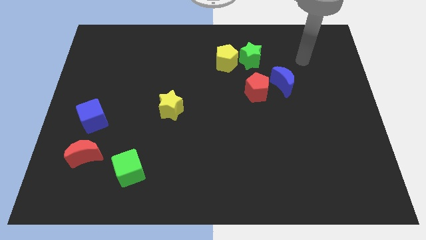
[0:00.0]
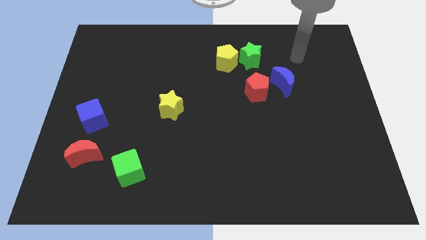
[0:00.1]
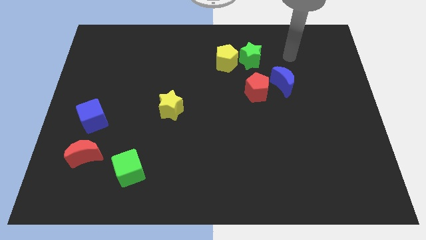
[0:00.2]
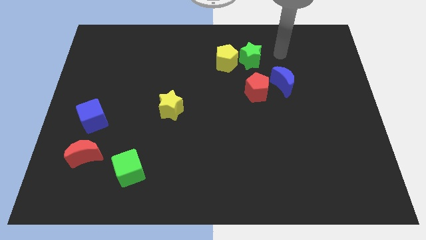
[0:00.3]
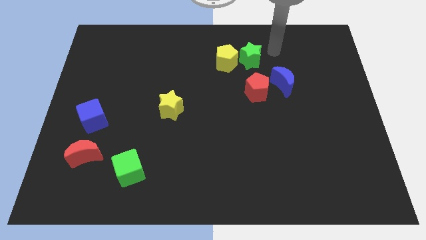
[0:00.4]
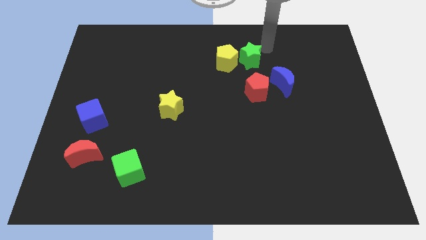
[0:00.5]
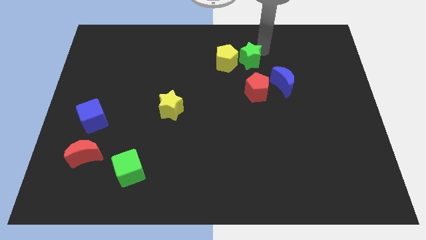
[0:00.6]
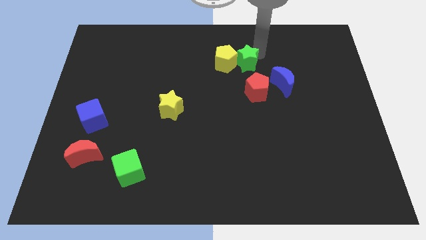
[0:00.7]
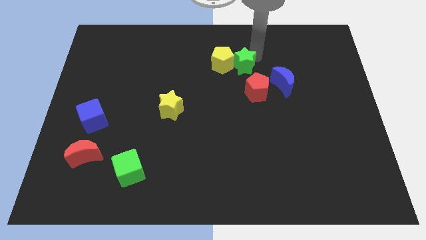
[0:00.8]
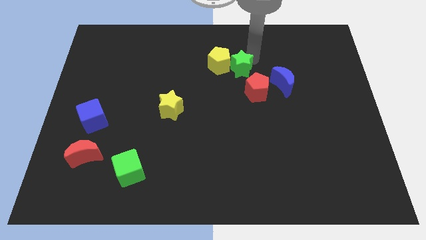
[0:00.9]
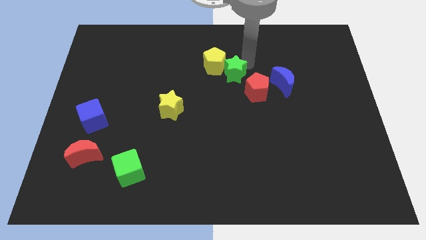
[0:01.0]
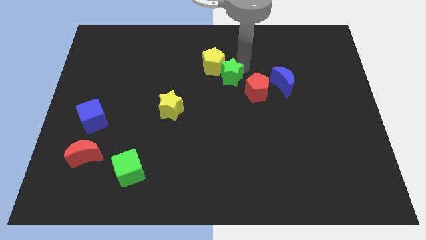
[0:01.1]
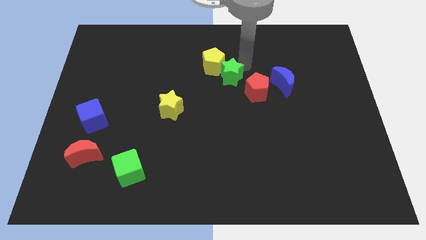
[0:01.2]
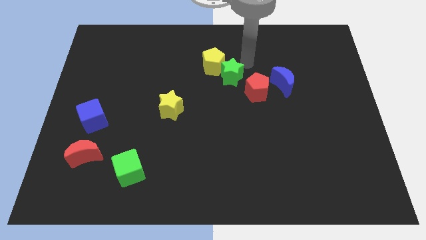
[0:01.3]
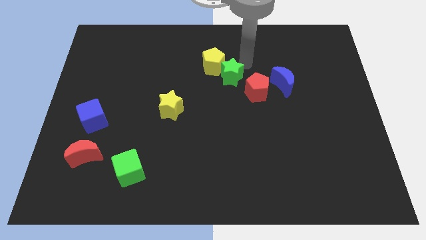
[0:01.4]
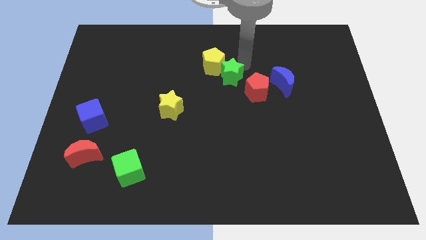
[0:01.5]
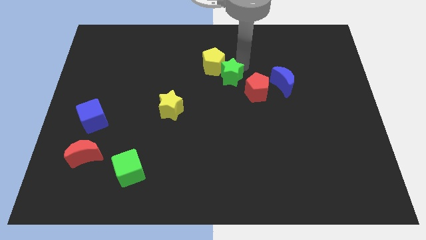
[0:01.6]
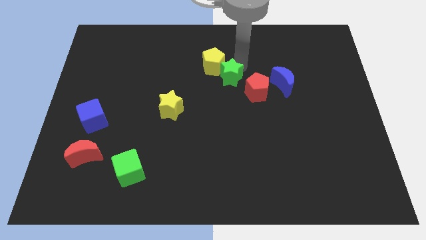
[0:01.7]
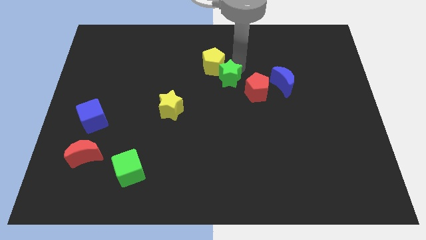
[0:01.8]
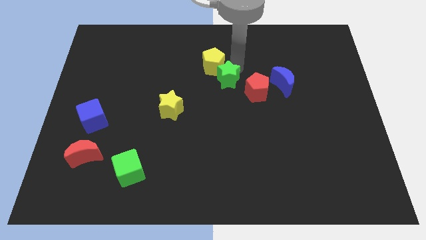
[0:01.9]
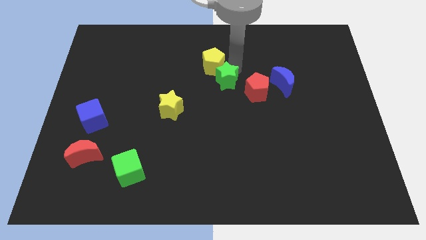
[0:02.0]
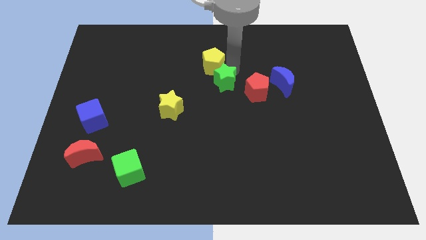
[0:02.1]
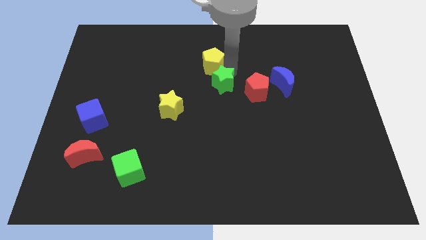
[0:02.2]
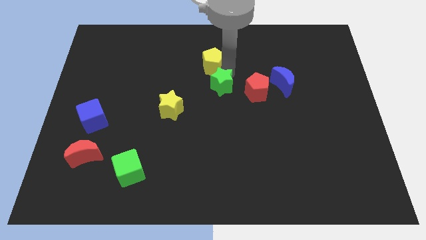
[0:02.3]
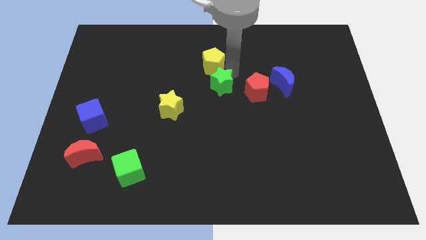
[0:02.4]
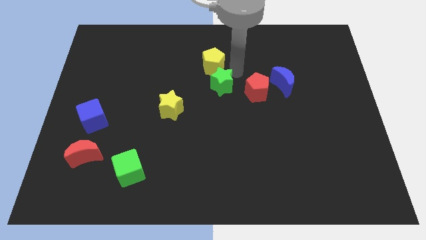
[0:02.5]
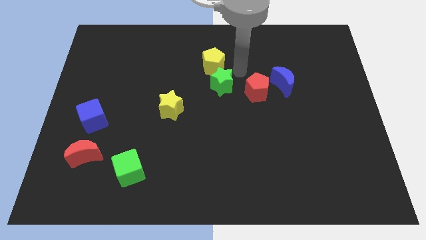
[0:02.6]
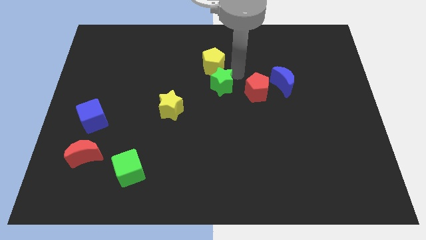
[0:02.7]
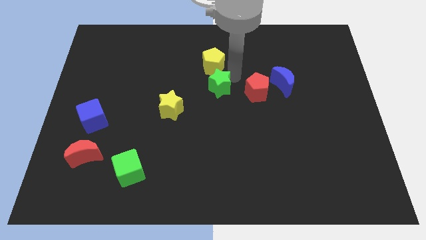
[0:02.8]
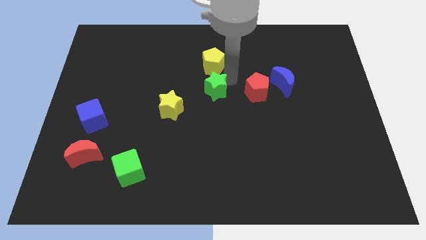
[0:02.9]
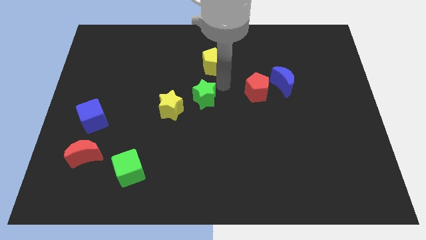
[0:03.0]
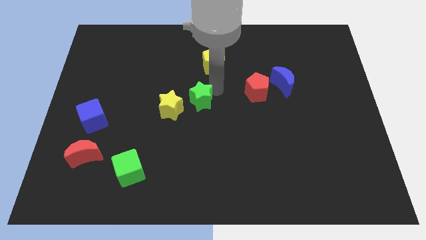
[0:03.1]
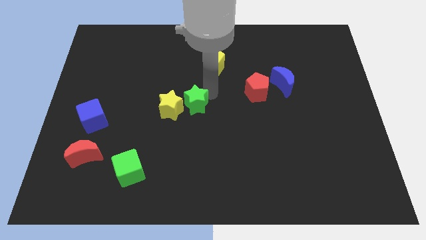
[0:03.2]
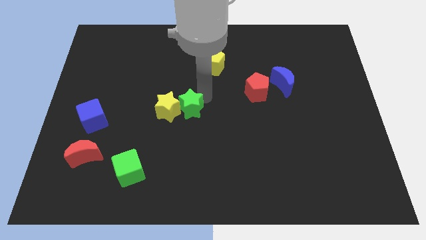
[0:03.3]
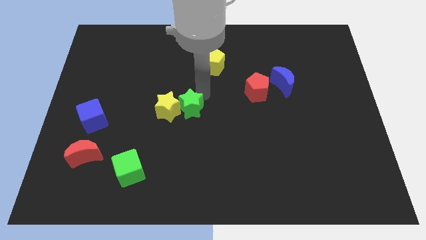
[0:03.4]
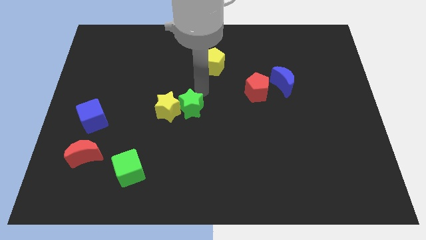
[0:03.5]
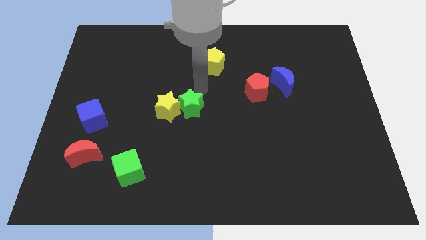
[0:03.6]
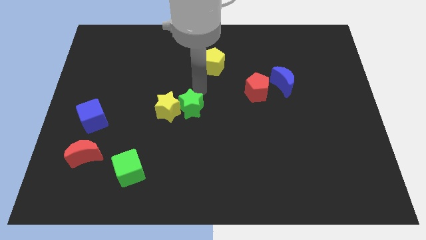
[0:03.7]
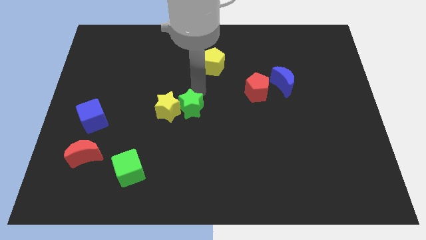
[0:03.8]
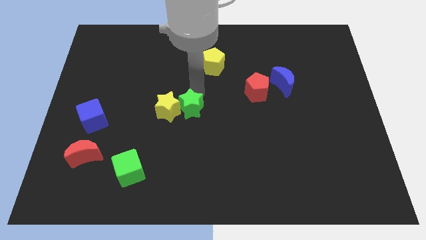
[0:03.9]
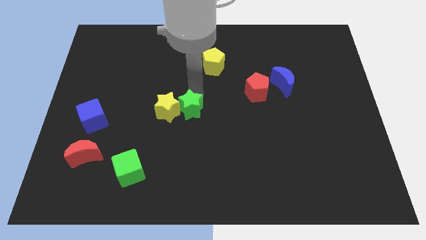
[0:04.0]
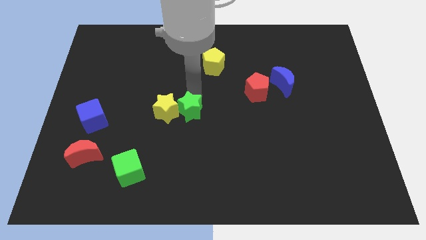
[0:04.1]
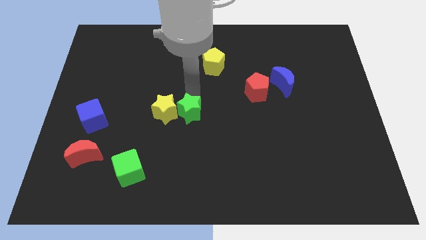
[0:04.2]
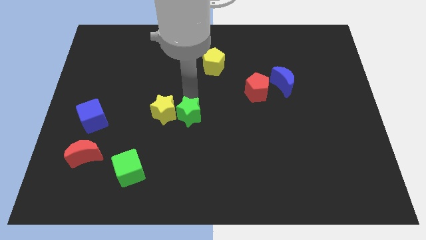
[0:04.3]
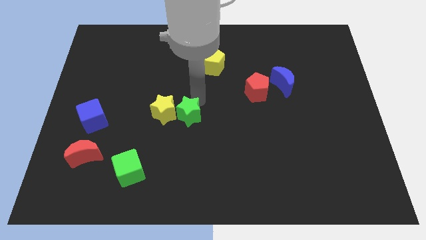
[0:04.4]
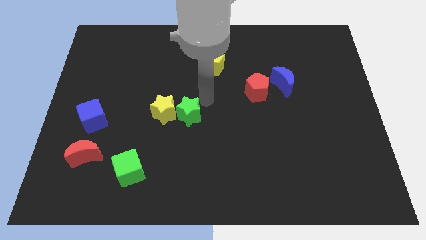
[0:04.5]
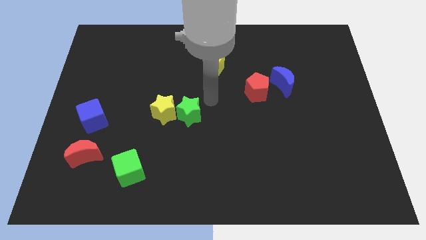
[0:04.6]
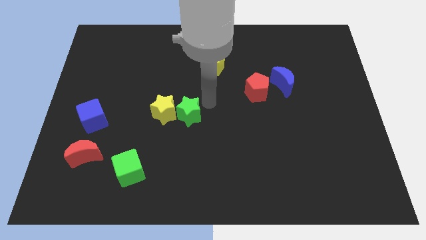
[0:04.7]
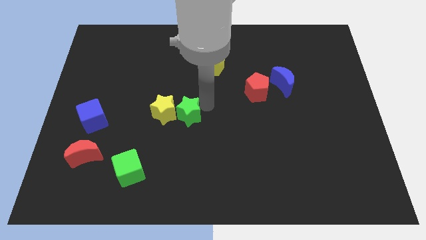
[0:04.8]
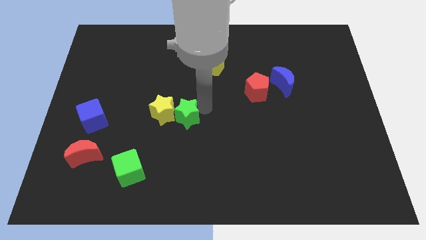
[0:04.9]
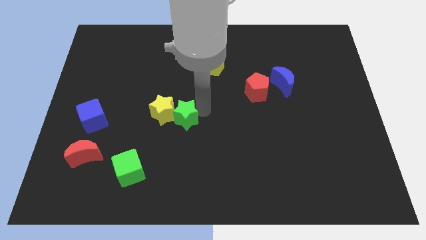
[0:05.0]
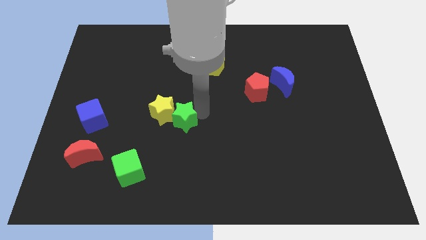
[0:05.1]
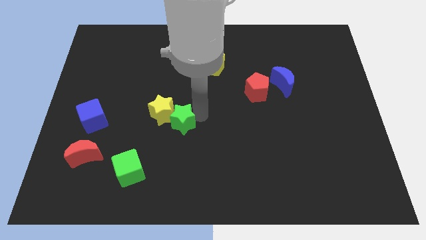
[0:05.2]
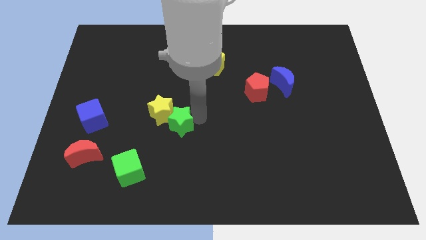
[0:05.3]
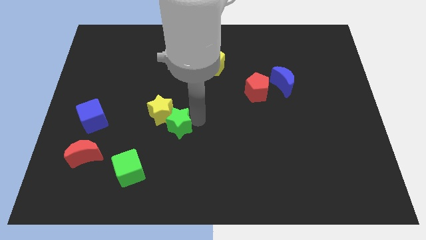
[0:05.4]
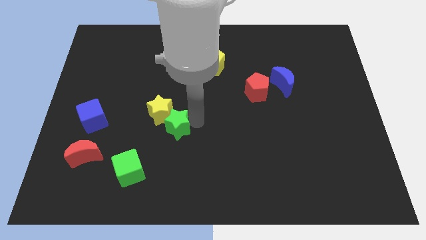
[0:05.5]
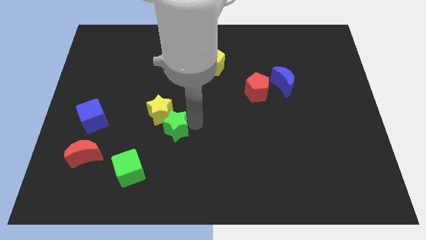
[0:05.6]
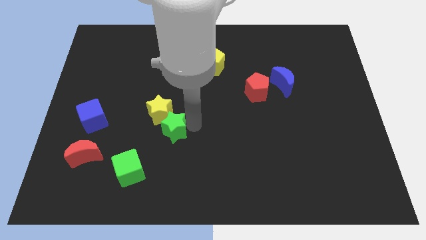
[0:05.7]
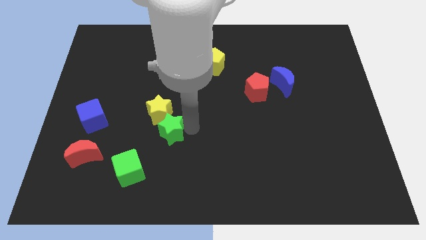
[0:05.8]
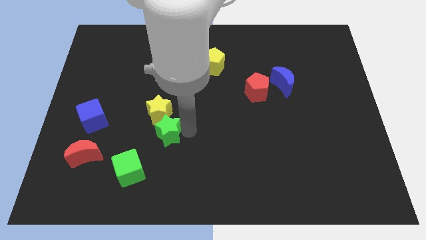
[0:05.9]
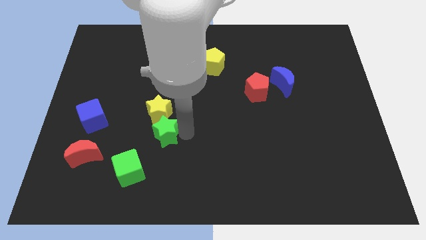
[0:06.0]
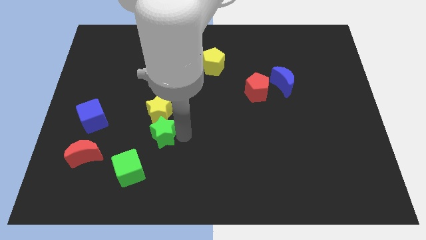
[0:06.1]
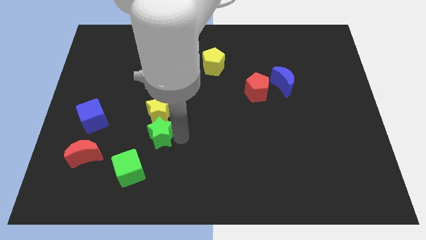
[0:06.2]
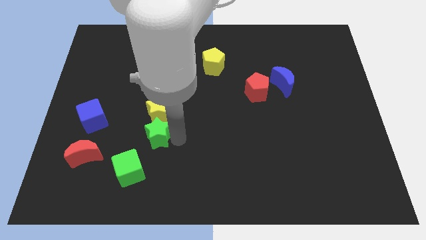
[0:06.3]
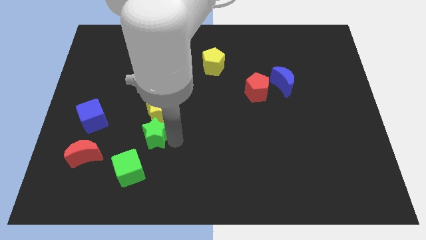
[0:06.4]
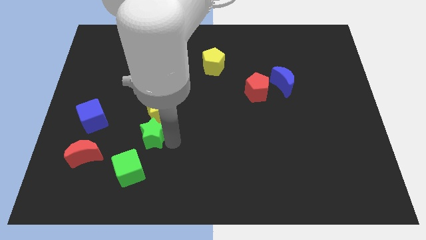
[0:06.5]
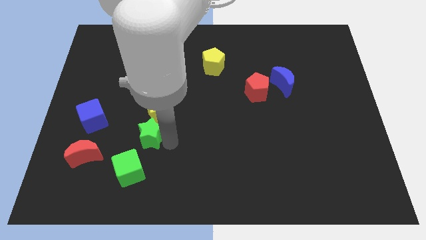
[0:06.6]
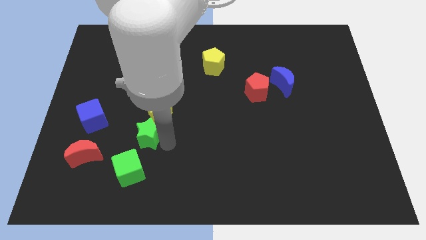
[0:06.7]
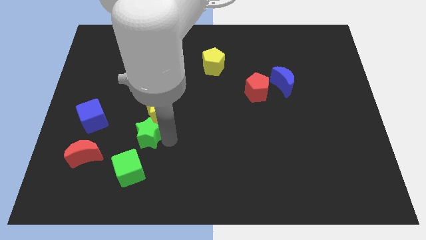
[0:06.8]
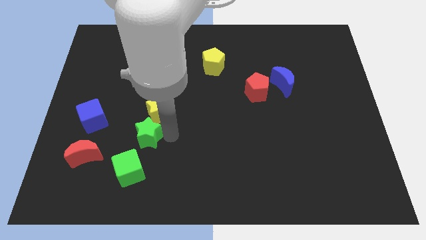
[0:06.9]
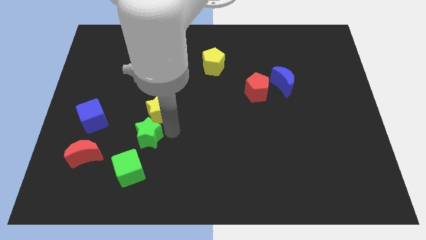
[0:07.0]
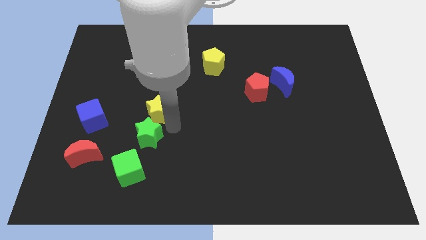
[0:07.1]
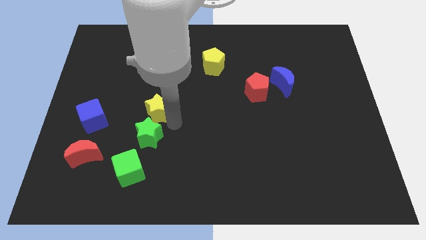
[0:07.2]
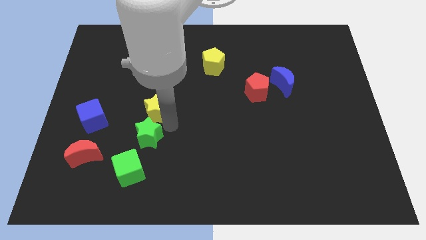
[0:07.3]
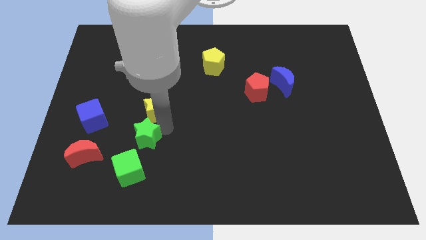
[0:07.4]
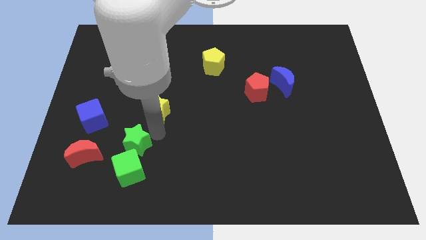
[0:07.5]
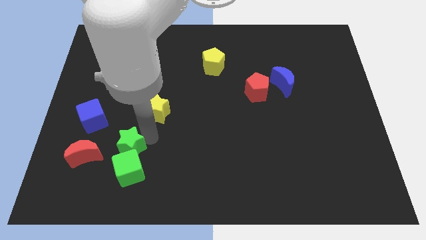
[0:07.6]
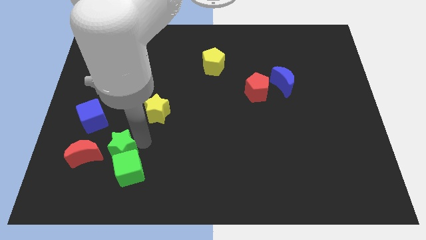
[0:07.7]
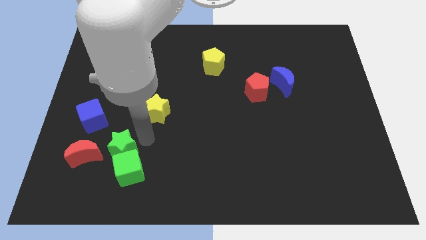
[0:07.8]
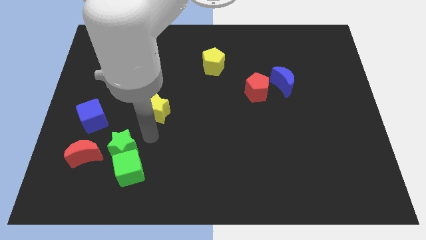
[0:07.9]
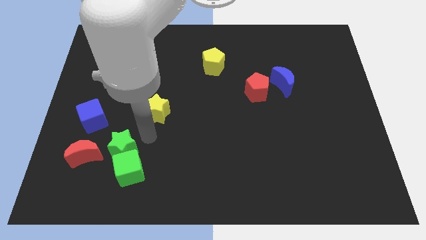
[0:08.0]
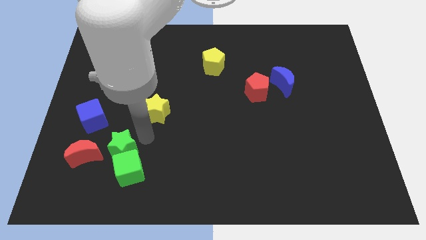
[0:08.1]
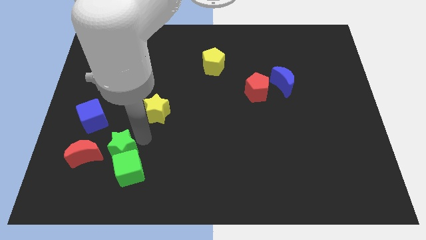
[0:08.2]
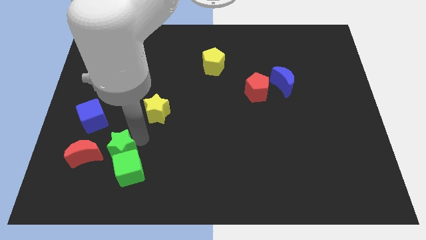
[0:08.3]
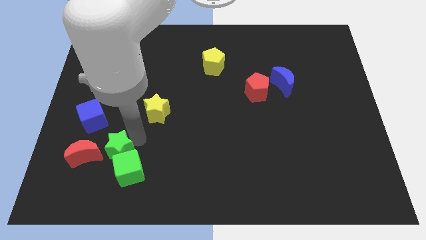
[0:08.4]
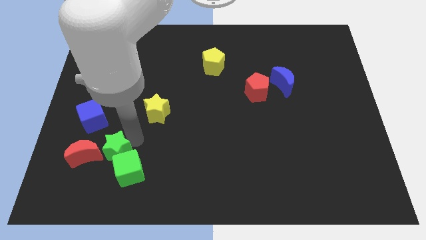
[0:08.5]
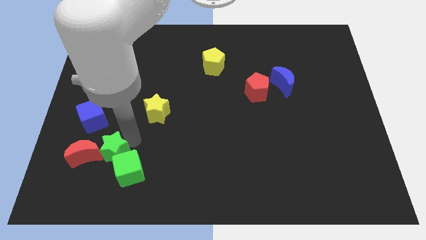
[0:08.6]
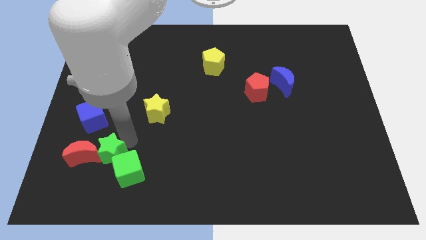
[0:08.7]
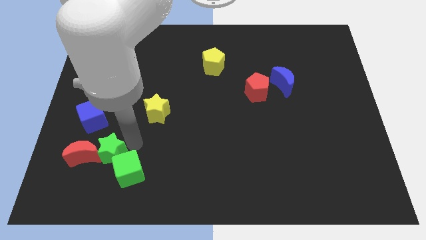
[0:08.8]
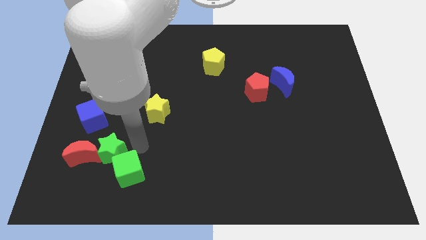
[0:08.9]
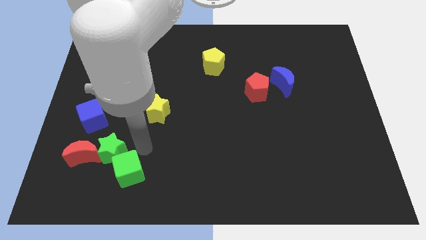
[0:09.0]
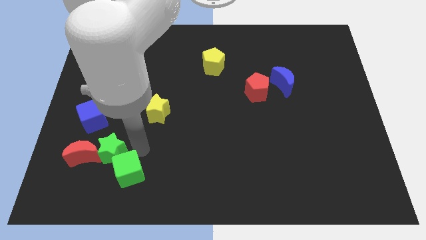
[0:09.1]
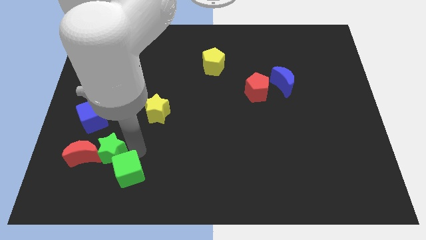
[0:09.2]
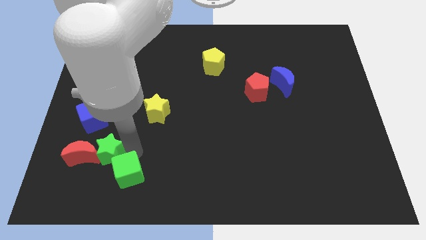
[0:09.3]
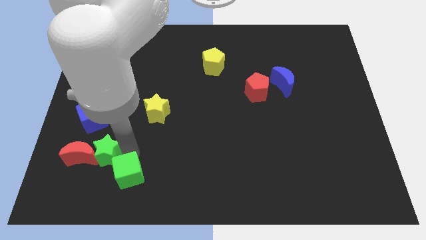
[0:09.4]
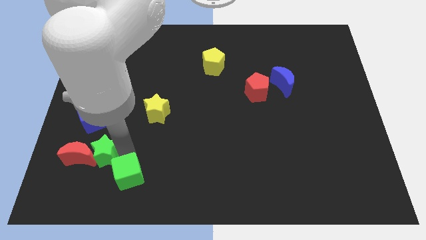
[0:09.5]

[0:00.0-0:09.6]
put the green star to the bottom of the blue cube
